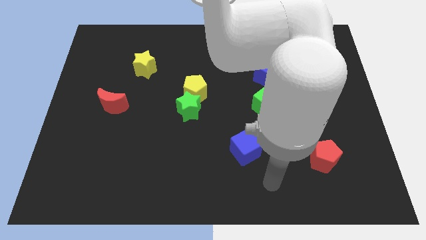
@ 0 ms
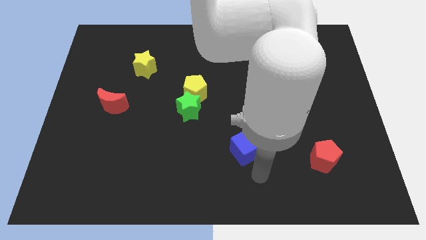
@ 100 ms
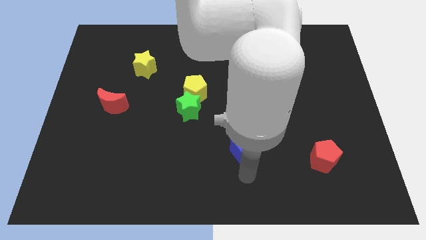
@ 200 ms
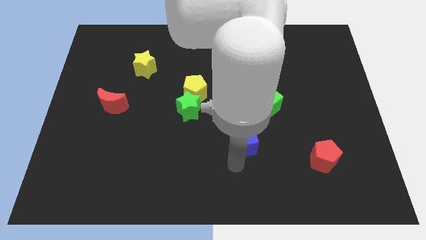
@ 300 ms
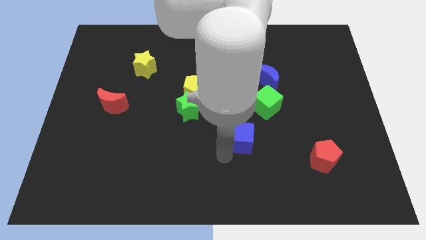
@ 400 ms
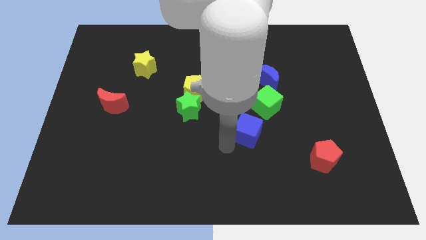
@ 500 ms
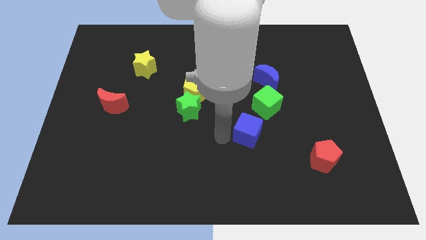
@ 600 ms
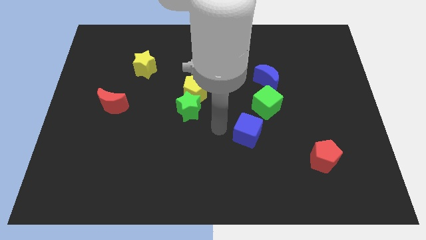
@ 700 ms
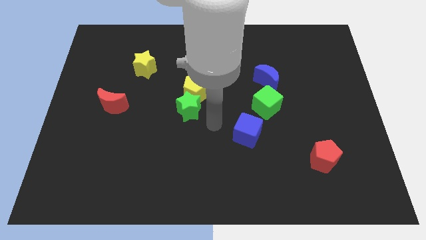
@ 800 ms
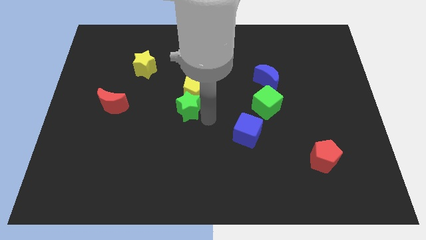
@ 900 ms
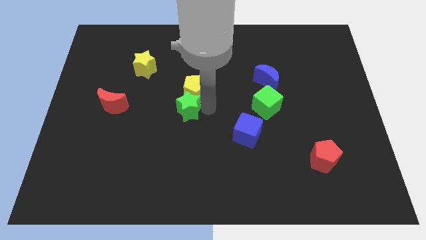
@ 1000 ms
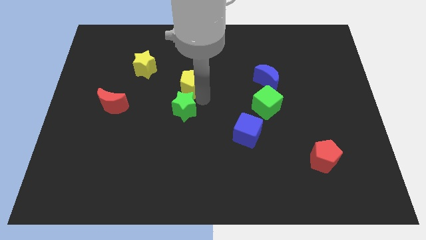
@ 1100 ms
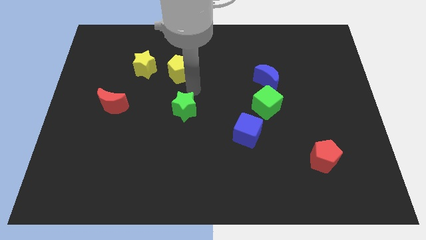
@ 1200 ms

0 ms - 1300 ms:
move the green star away from the yellow pentagon

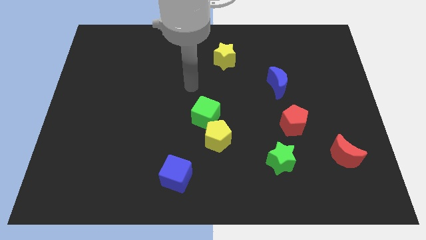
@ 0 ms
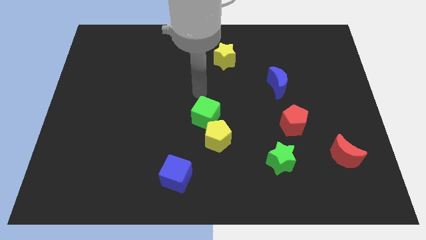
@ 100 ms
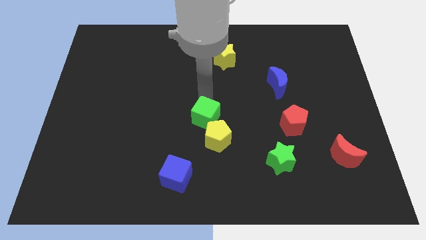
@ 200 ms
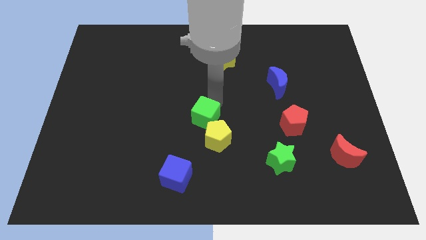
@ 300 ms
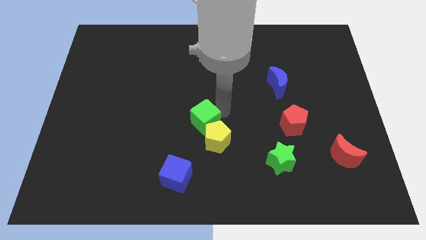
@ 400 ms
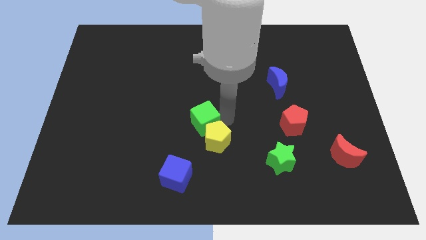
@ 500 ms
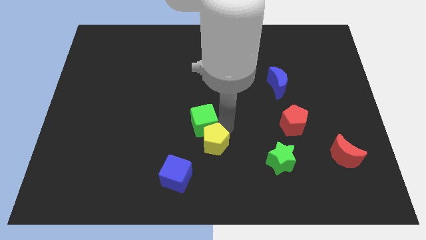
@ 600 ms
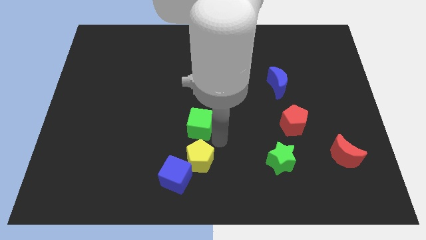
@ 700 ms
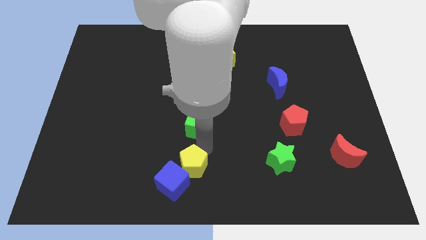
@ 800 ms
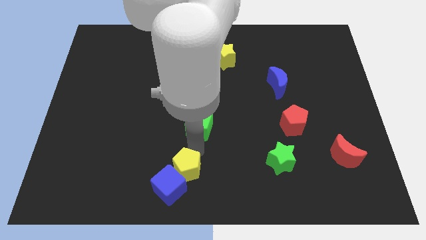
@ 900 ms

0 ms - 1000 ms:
separate the green cube from the yellow pentagon

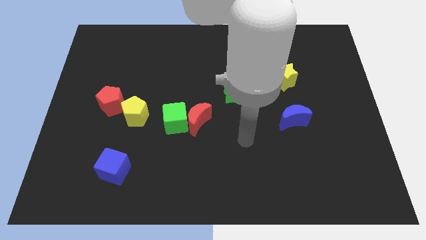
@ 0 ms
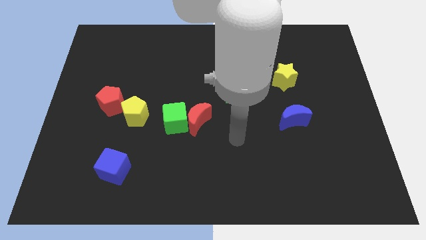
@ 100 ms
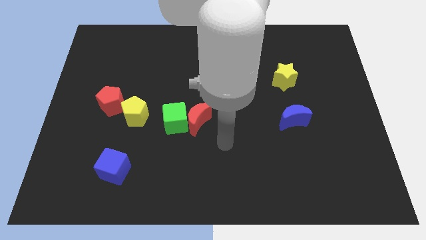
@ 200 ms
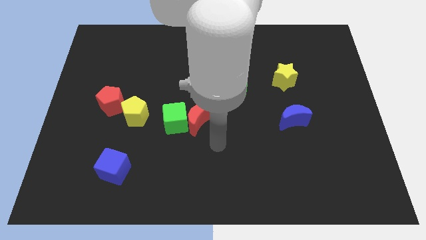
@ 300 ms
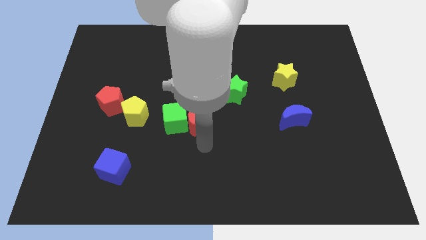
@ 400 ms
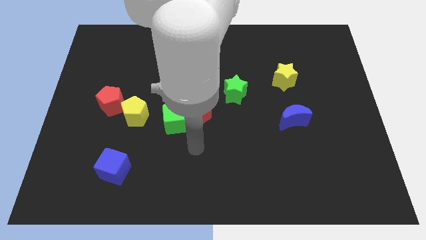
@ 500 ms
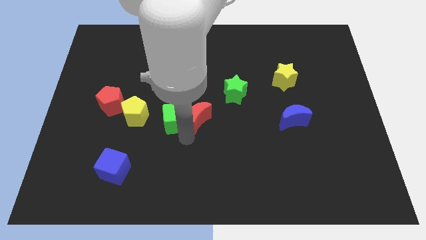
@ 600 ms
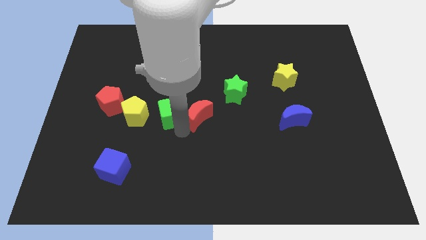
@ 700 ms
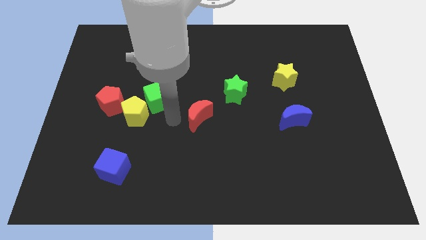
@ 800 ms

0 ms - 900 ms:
separate the red moon from the green cube

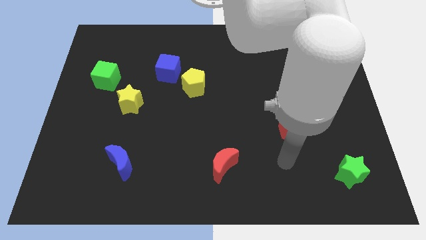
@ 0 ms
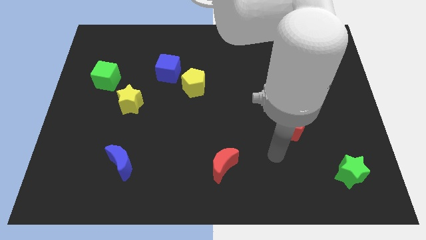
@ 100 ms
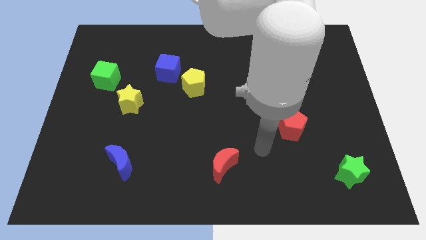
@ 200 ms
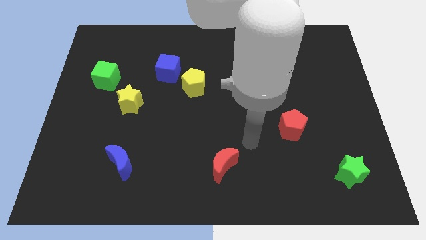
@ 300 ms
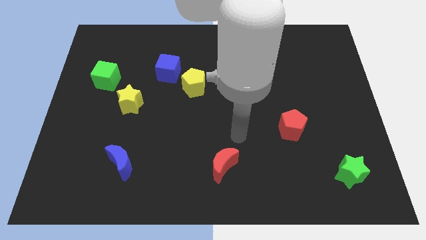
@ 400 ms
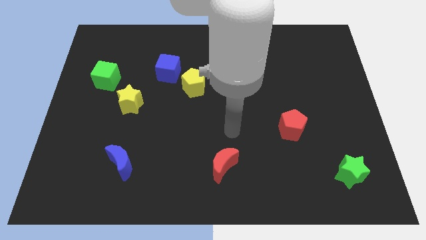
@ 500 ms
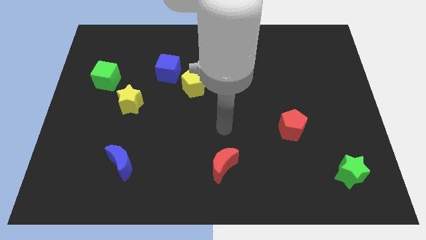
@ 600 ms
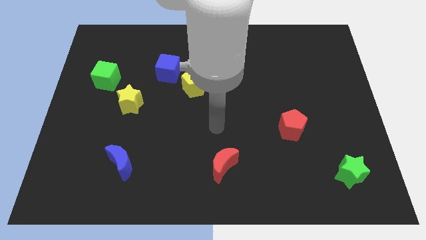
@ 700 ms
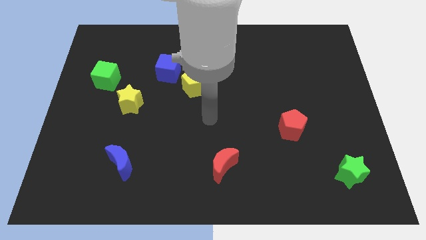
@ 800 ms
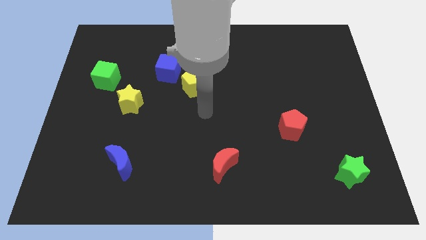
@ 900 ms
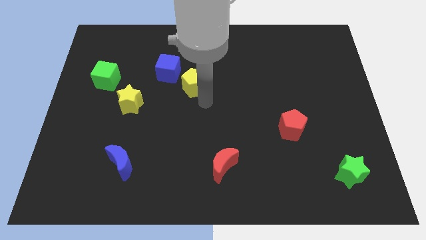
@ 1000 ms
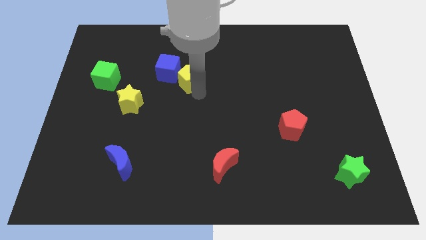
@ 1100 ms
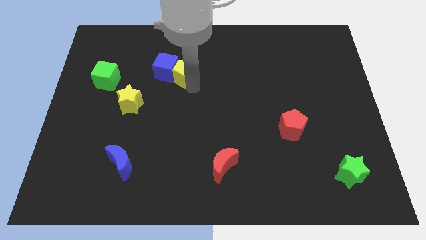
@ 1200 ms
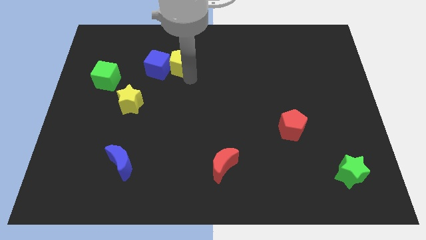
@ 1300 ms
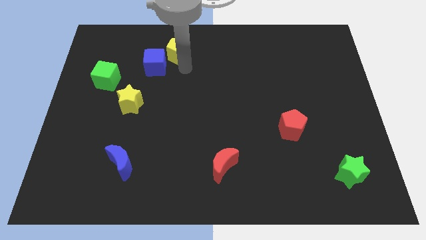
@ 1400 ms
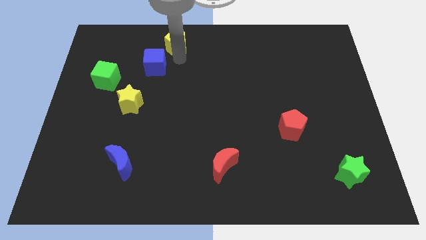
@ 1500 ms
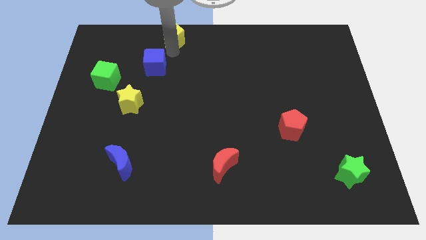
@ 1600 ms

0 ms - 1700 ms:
pull the blue cube apart from the yellow pentagon

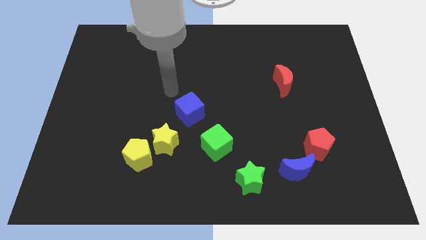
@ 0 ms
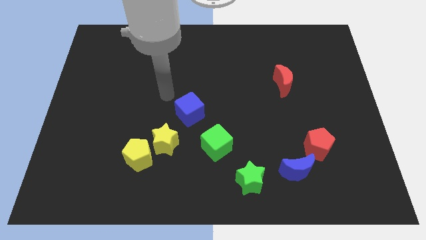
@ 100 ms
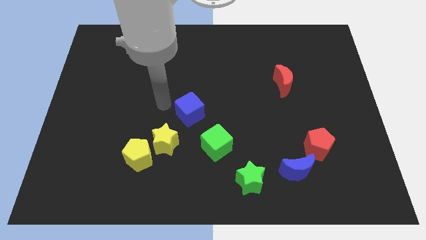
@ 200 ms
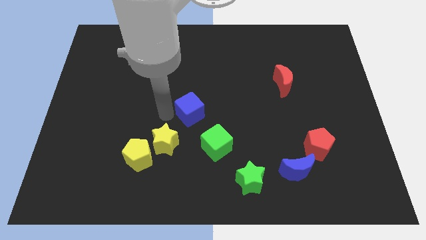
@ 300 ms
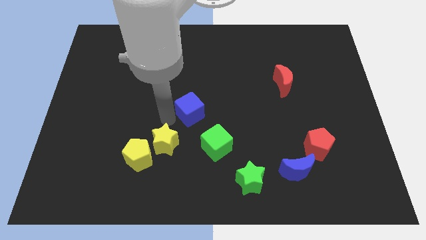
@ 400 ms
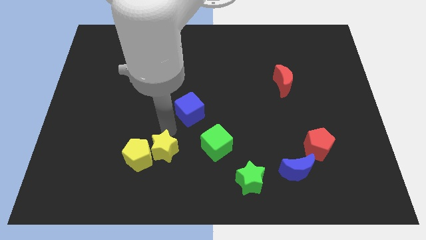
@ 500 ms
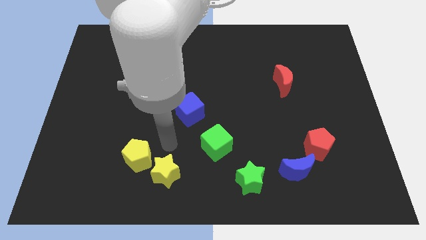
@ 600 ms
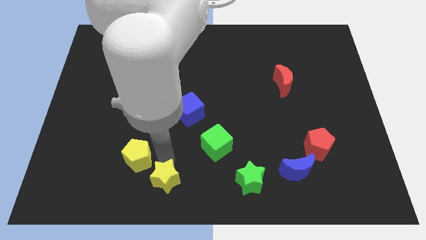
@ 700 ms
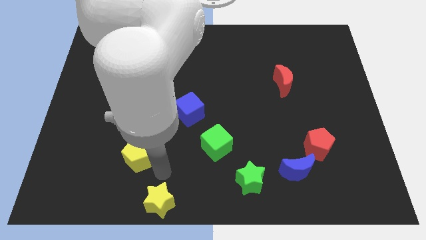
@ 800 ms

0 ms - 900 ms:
separate the yellow pentagon from the yellow star

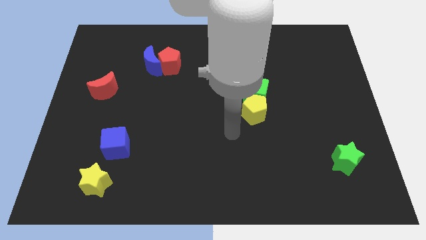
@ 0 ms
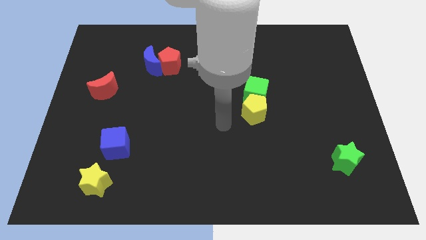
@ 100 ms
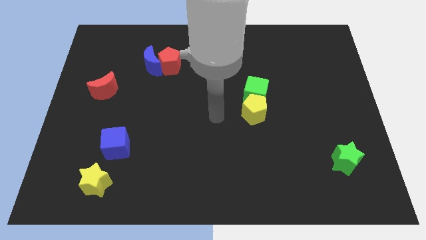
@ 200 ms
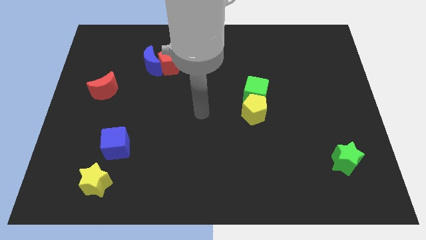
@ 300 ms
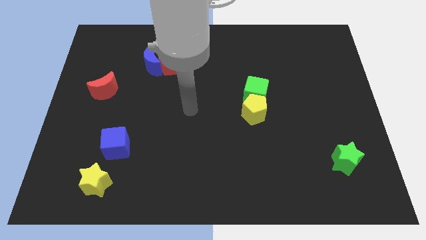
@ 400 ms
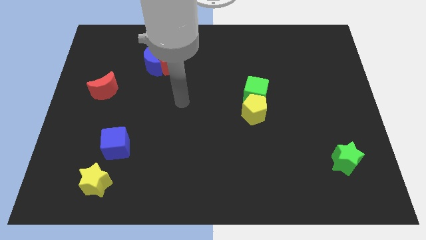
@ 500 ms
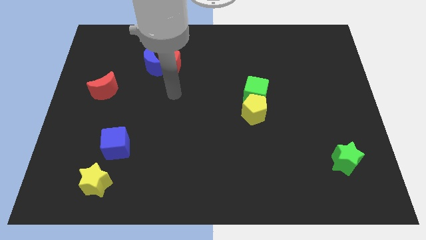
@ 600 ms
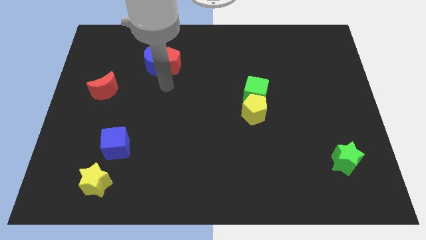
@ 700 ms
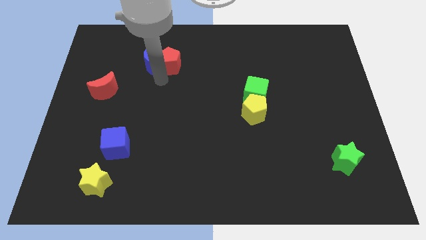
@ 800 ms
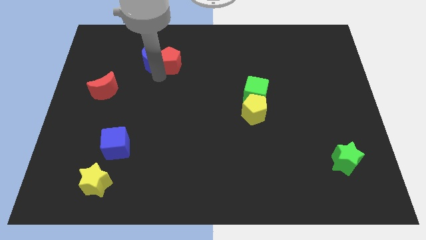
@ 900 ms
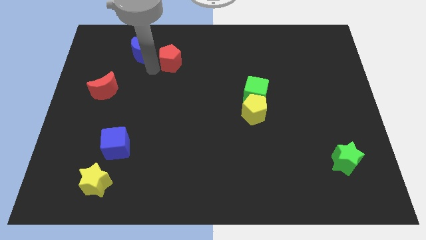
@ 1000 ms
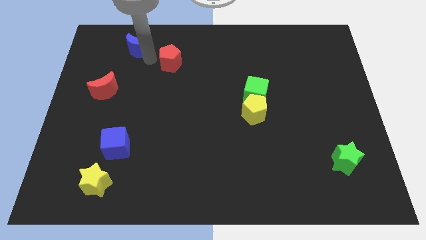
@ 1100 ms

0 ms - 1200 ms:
separate the red pentagon from the blue moon

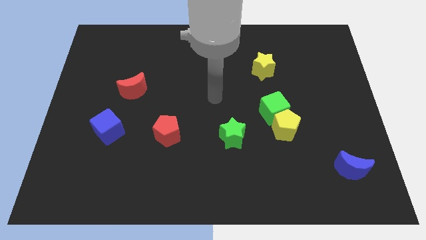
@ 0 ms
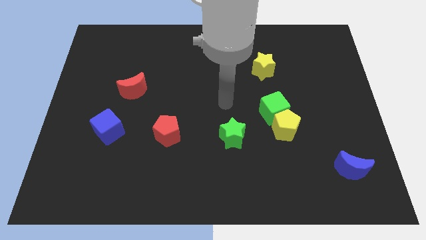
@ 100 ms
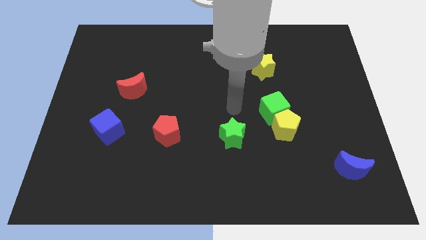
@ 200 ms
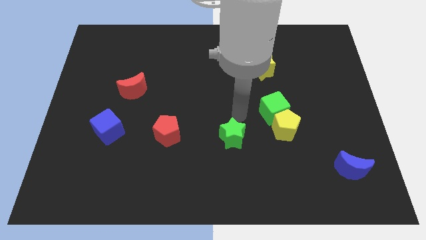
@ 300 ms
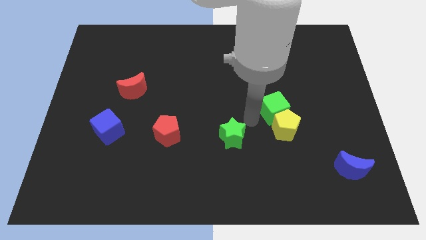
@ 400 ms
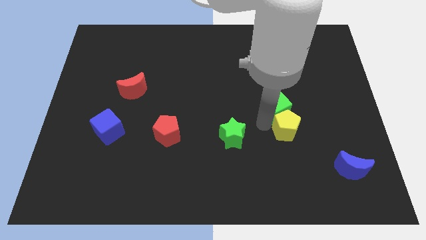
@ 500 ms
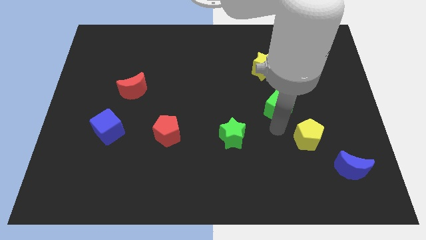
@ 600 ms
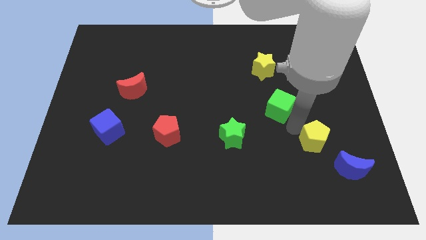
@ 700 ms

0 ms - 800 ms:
move the green cube away from the yellow pentagon

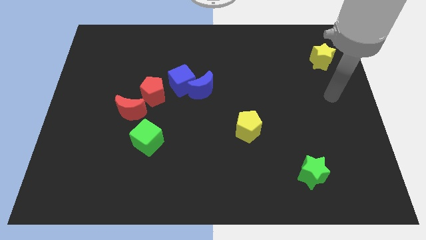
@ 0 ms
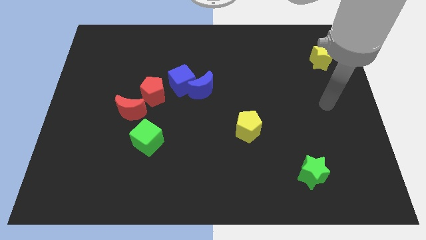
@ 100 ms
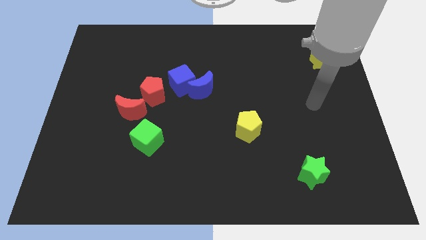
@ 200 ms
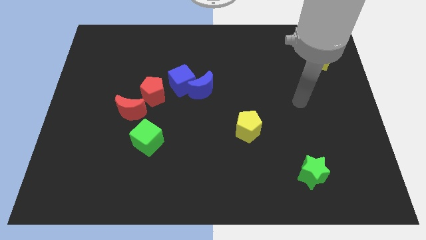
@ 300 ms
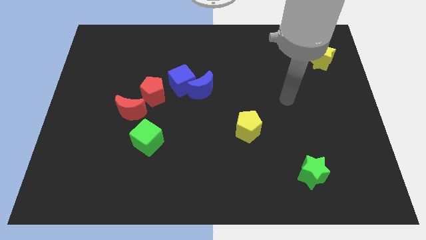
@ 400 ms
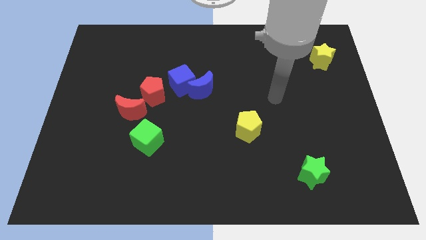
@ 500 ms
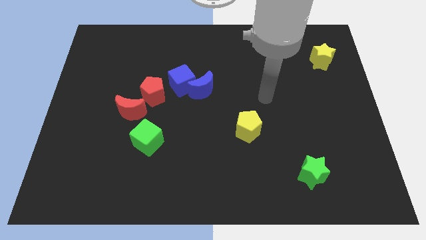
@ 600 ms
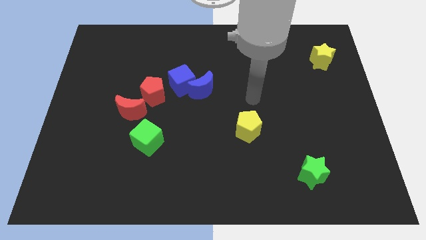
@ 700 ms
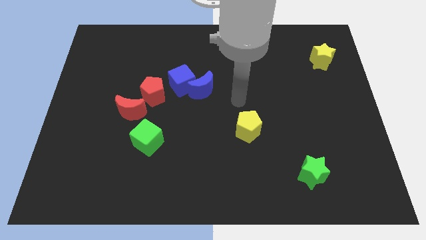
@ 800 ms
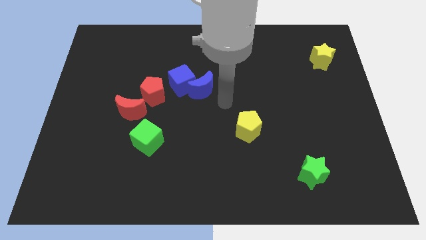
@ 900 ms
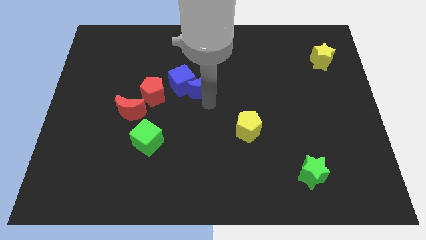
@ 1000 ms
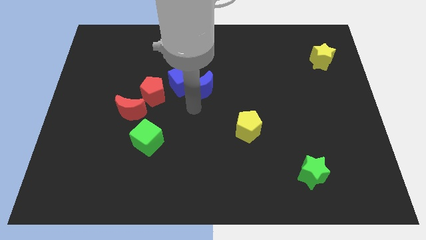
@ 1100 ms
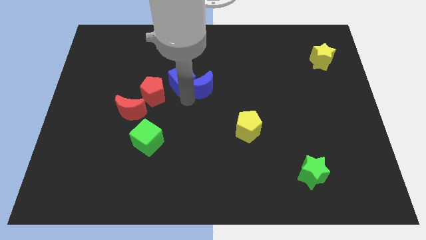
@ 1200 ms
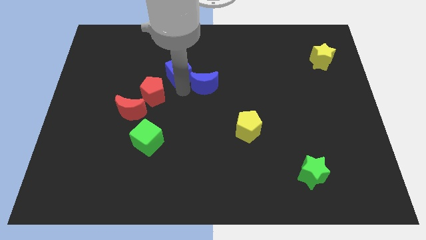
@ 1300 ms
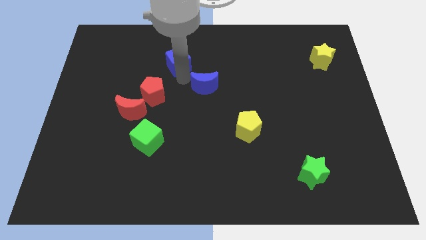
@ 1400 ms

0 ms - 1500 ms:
separate the blue moon from the blue cube

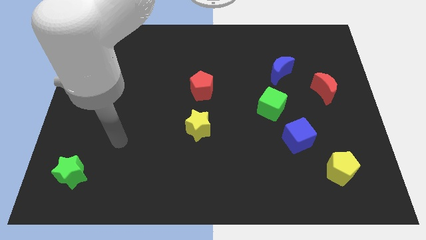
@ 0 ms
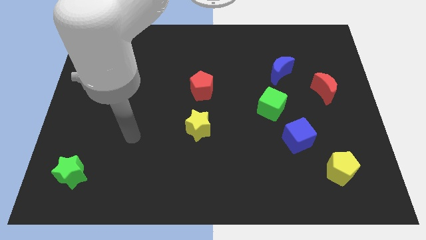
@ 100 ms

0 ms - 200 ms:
pull the blue cube apart from the green cube
